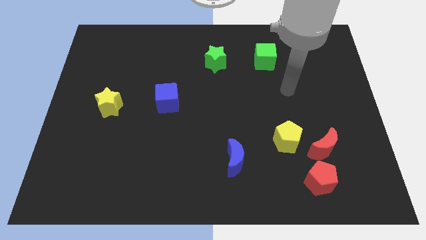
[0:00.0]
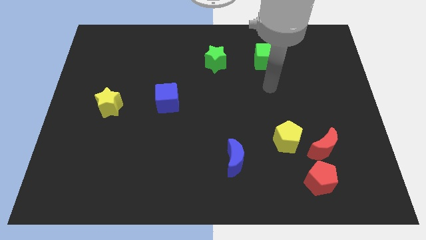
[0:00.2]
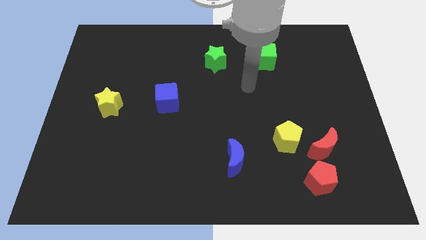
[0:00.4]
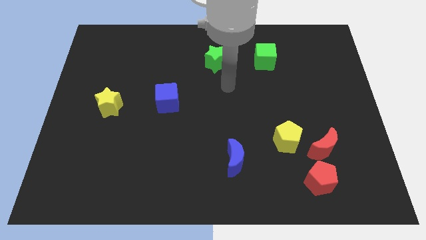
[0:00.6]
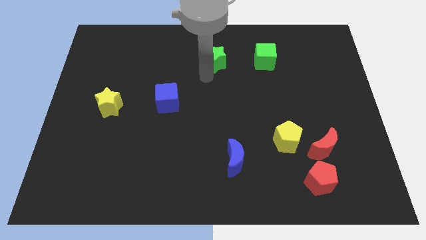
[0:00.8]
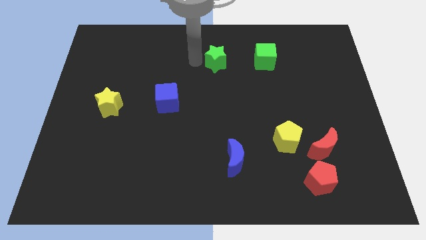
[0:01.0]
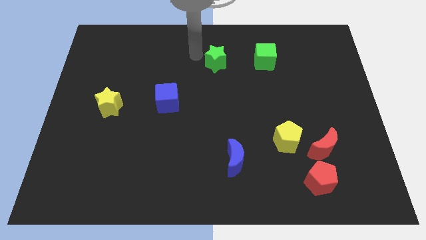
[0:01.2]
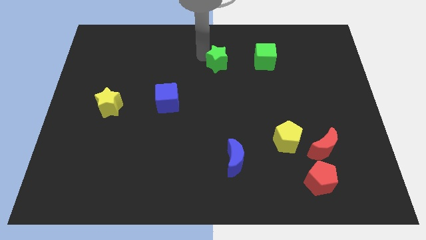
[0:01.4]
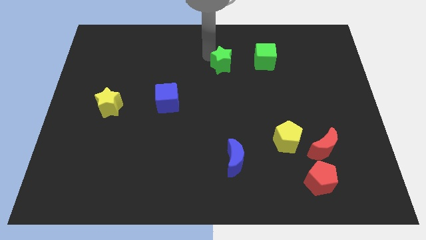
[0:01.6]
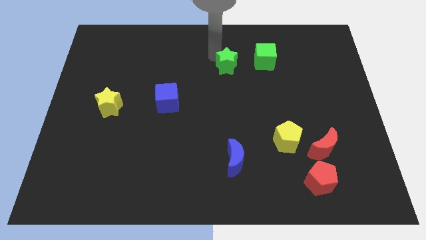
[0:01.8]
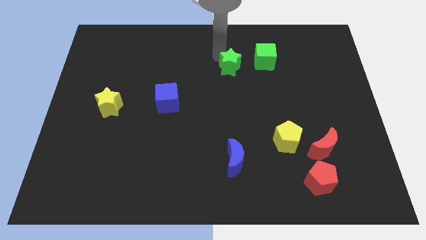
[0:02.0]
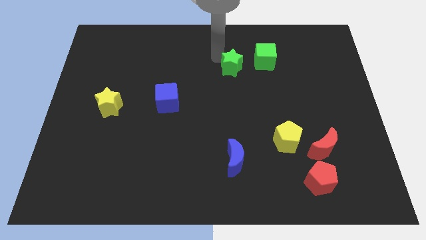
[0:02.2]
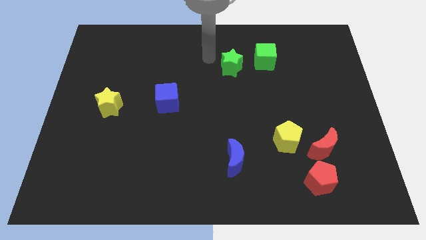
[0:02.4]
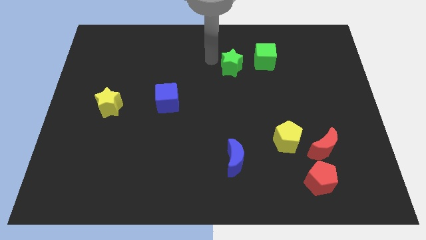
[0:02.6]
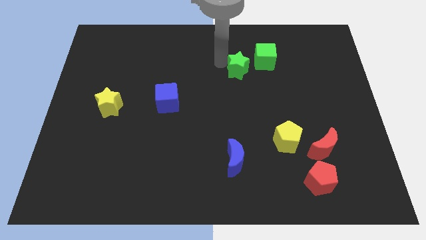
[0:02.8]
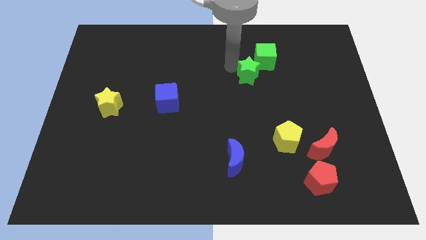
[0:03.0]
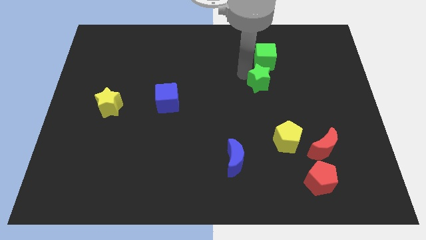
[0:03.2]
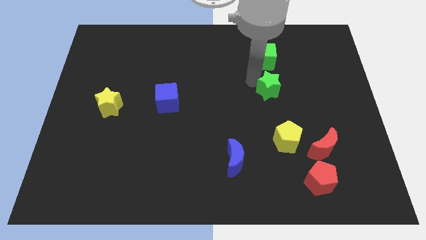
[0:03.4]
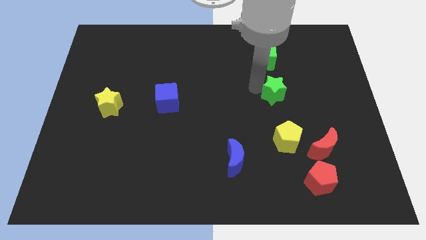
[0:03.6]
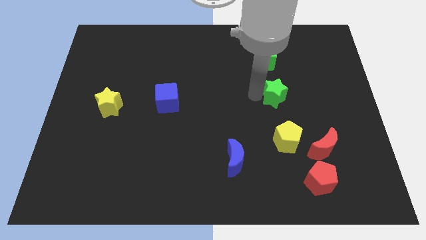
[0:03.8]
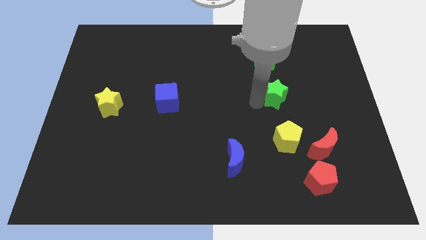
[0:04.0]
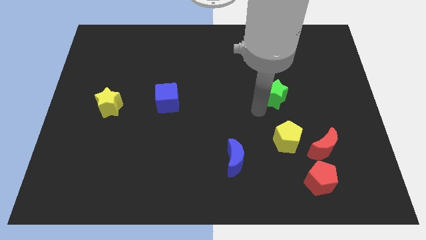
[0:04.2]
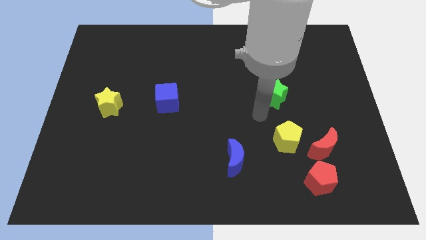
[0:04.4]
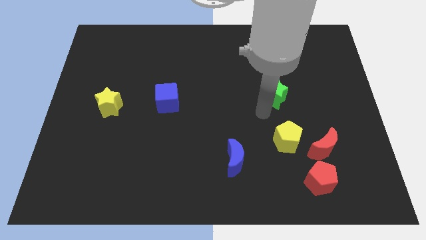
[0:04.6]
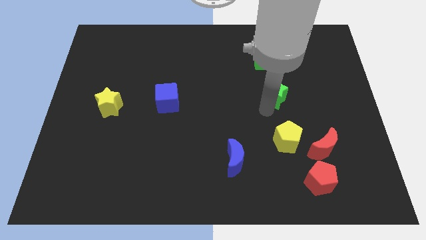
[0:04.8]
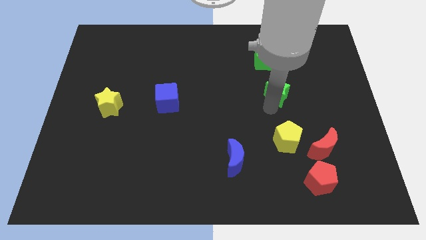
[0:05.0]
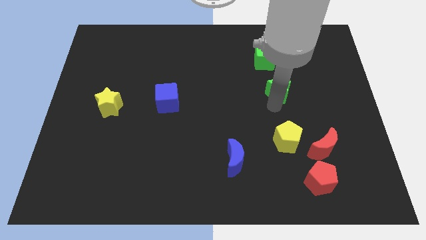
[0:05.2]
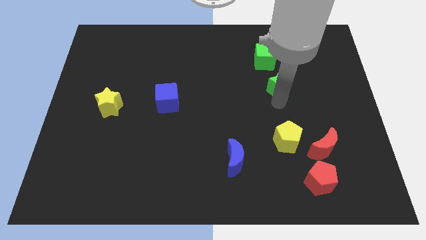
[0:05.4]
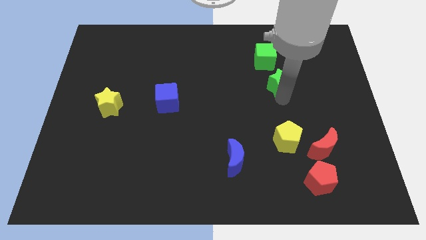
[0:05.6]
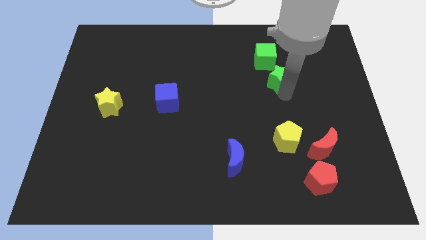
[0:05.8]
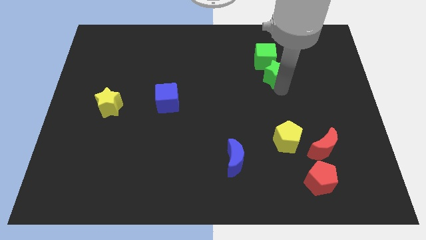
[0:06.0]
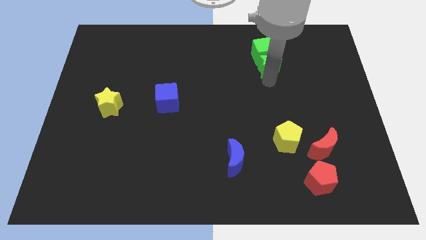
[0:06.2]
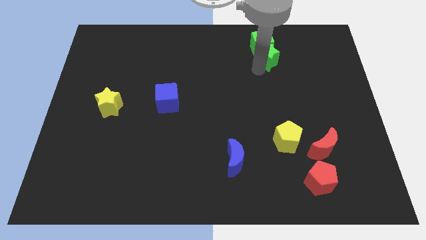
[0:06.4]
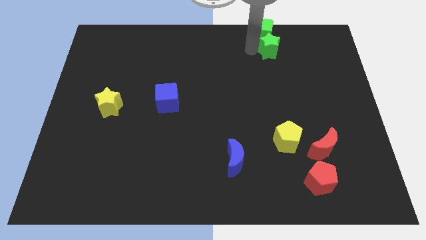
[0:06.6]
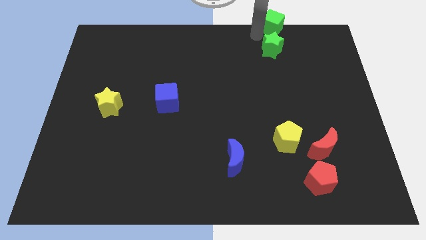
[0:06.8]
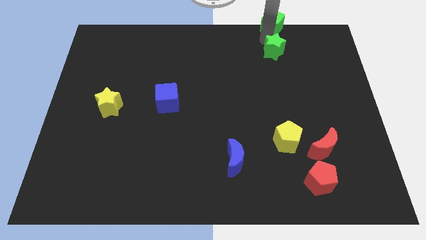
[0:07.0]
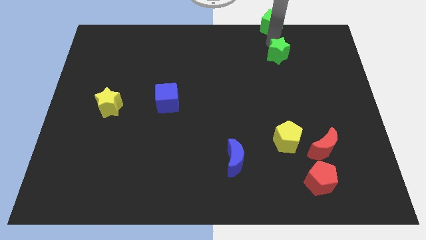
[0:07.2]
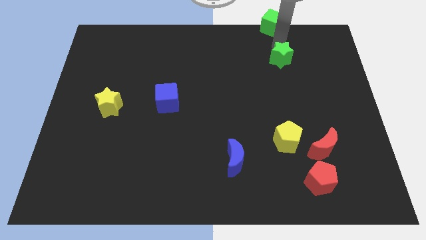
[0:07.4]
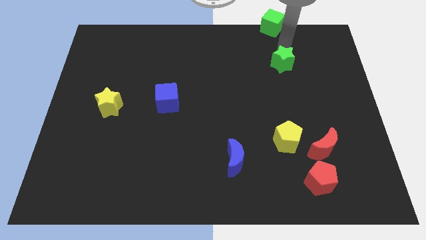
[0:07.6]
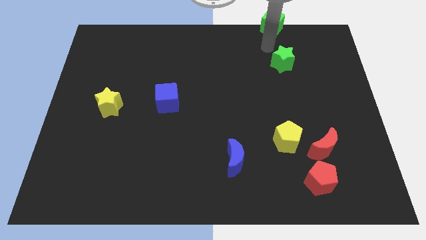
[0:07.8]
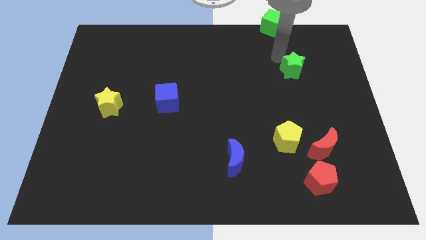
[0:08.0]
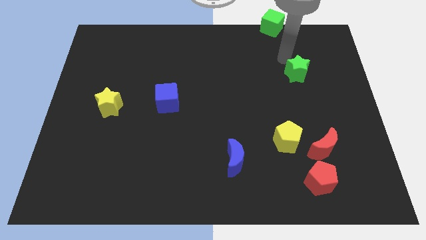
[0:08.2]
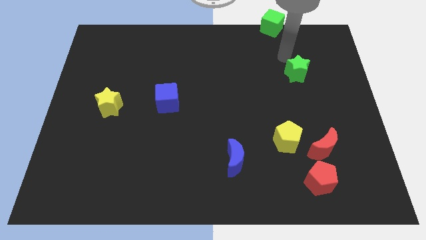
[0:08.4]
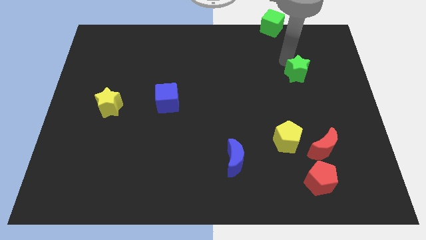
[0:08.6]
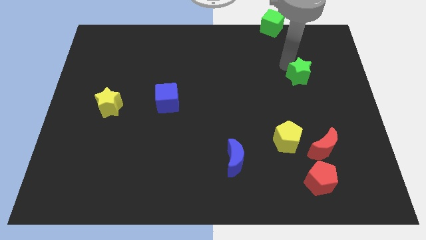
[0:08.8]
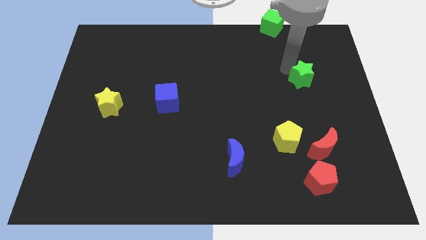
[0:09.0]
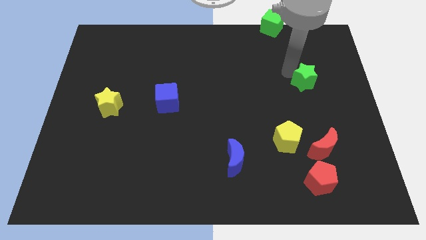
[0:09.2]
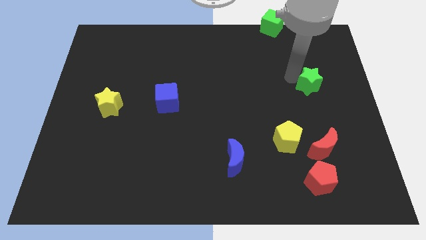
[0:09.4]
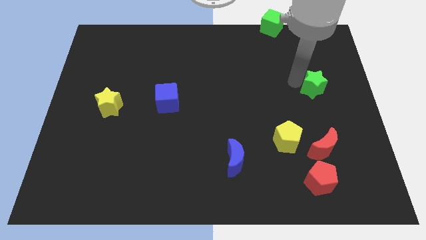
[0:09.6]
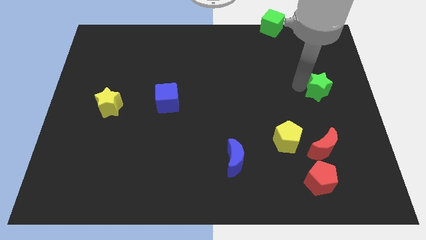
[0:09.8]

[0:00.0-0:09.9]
slide the green star to the right side
